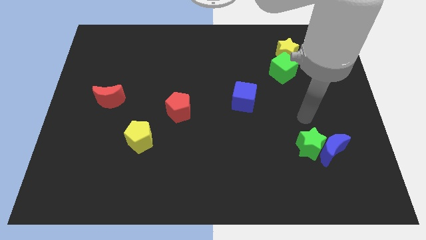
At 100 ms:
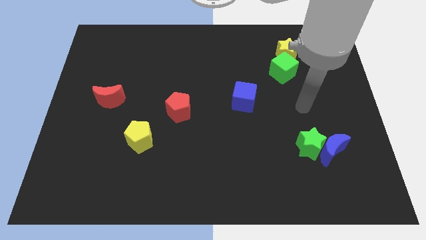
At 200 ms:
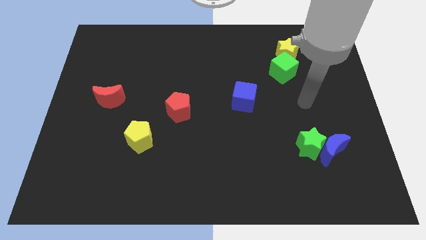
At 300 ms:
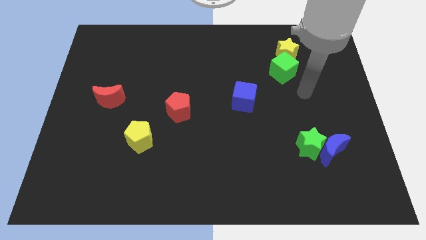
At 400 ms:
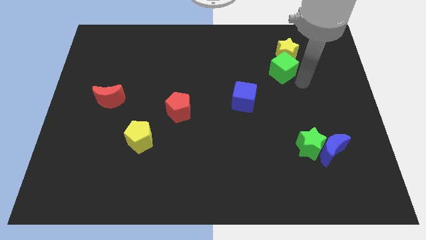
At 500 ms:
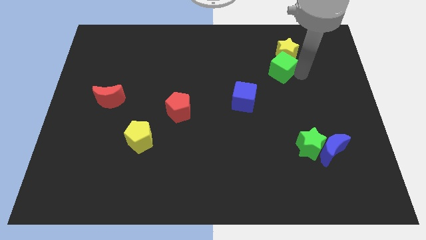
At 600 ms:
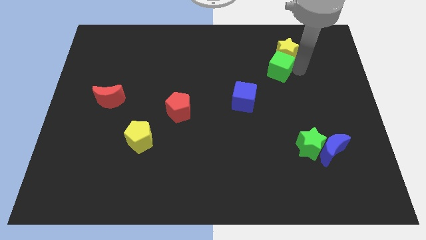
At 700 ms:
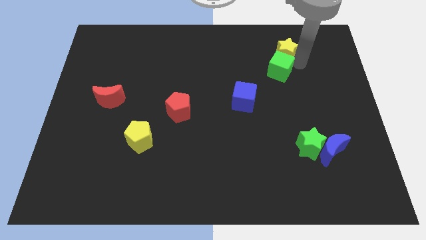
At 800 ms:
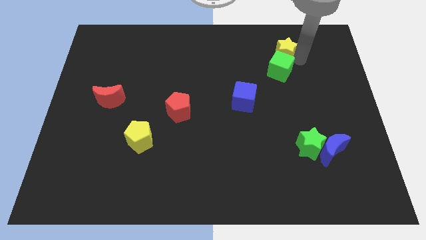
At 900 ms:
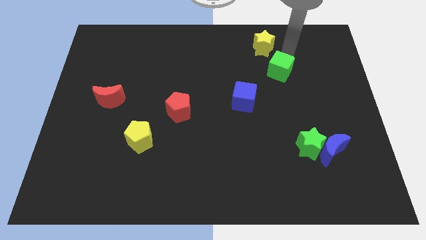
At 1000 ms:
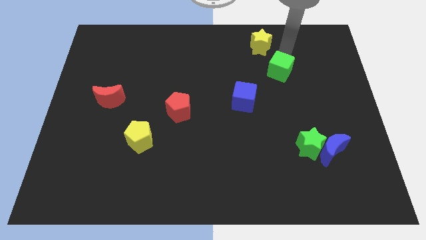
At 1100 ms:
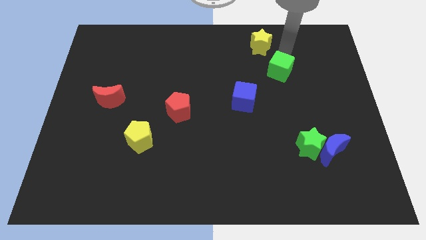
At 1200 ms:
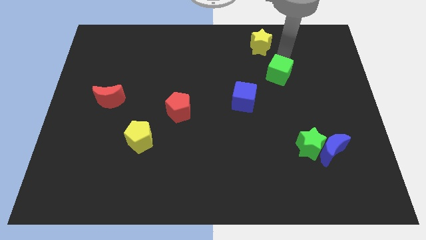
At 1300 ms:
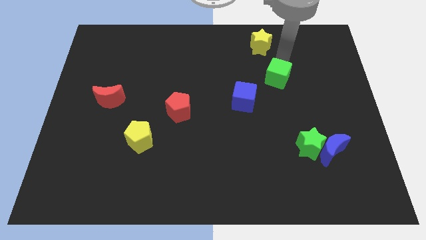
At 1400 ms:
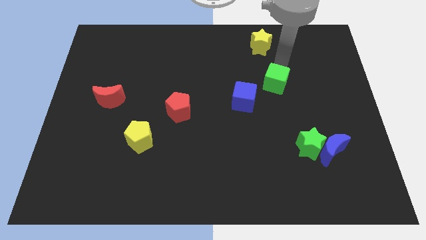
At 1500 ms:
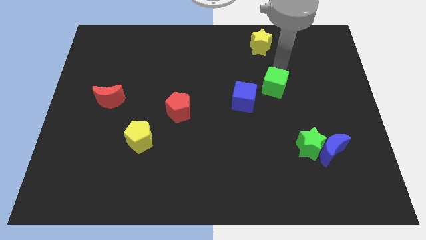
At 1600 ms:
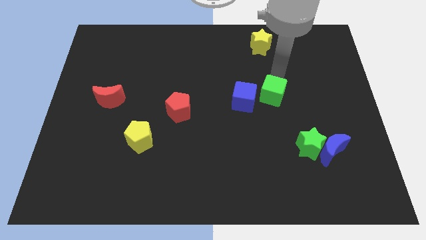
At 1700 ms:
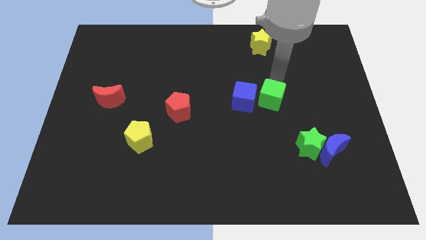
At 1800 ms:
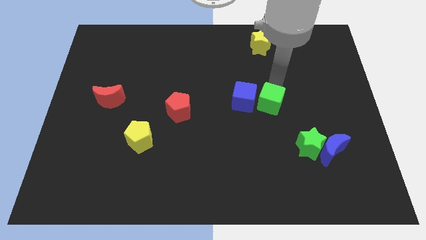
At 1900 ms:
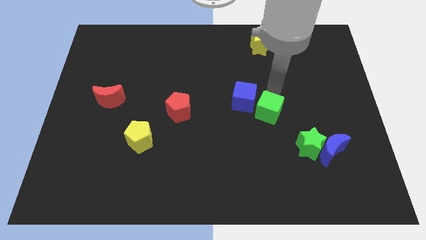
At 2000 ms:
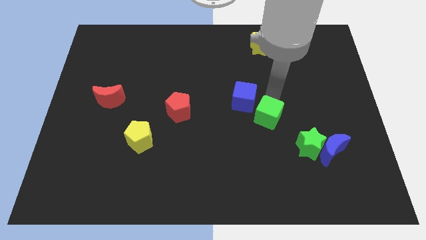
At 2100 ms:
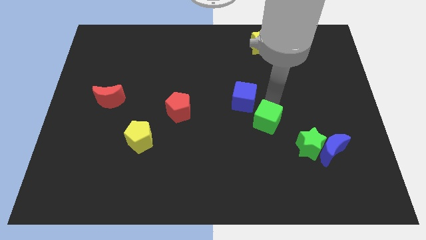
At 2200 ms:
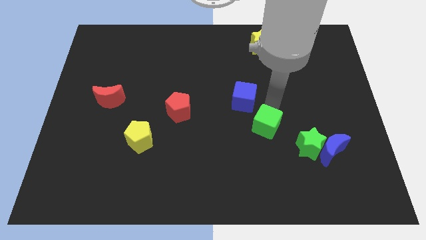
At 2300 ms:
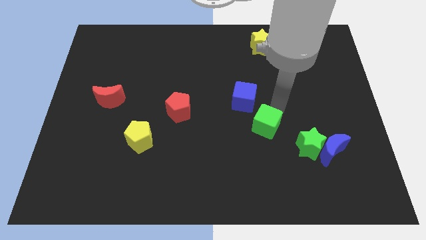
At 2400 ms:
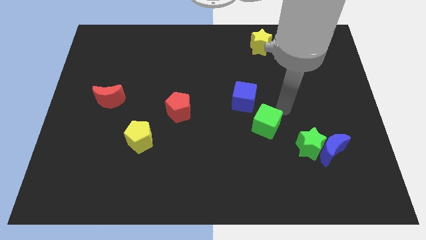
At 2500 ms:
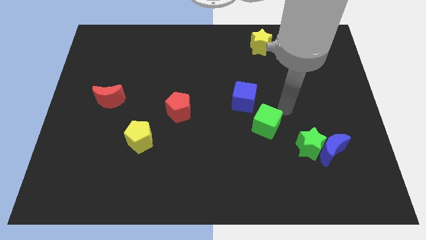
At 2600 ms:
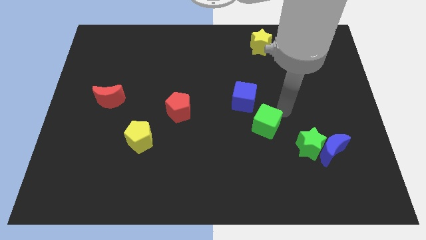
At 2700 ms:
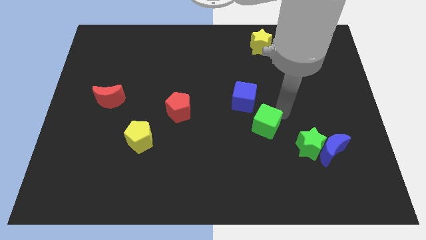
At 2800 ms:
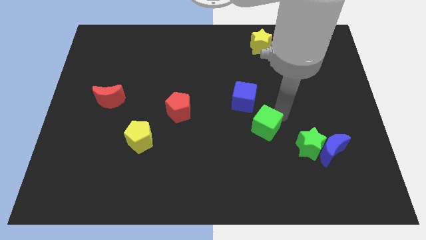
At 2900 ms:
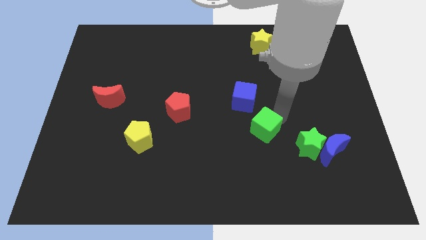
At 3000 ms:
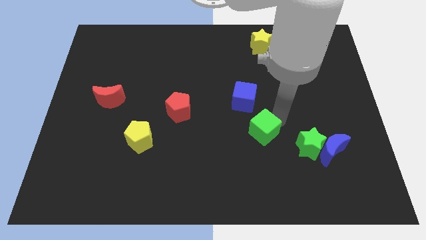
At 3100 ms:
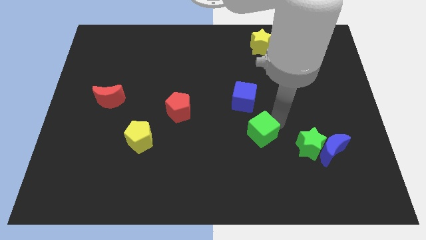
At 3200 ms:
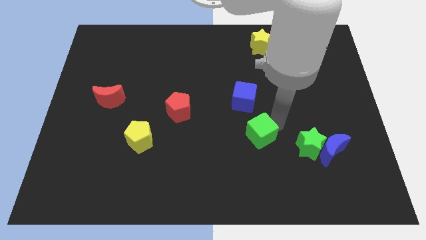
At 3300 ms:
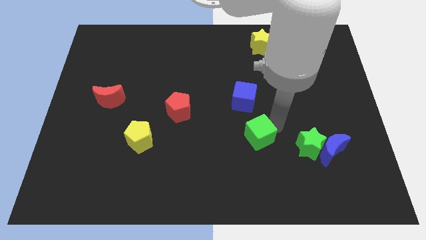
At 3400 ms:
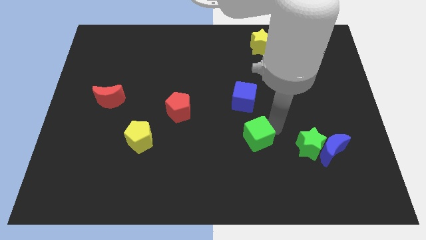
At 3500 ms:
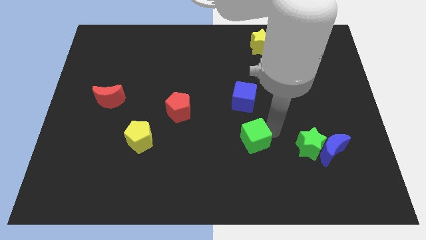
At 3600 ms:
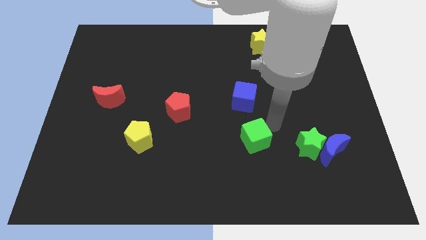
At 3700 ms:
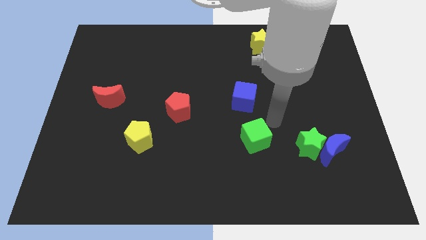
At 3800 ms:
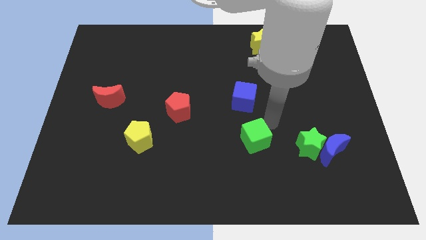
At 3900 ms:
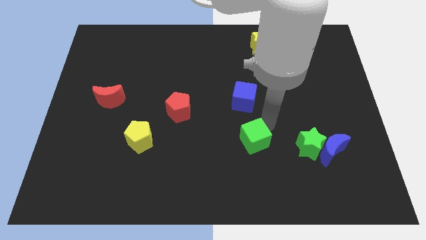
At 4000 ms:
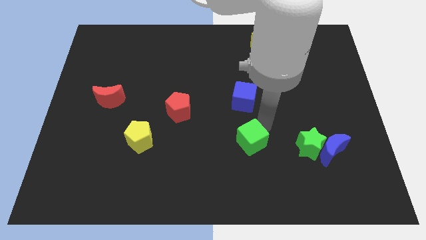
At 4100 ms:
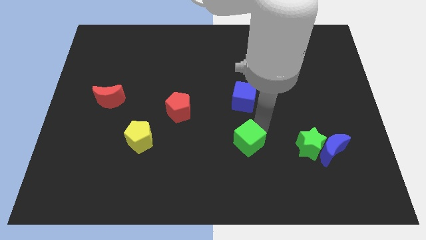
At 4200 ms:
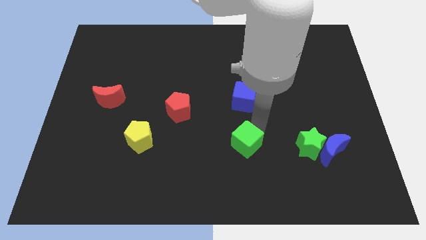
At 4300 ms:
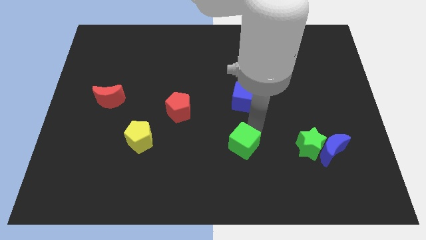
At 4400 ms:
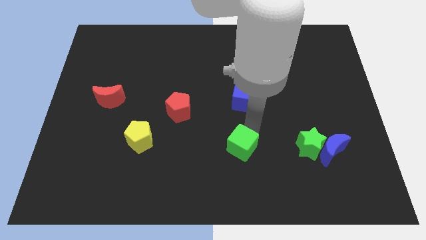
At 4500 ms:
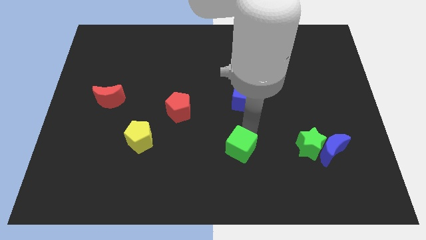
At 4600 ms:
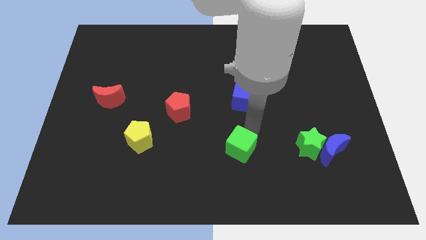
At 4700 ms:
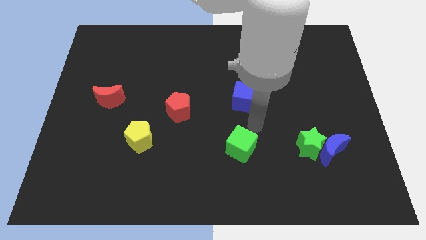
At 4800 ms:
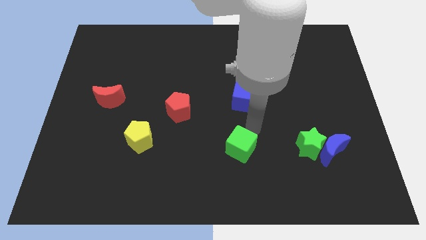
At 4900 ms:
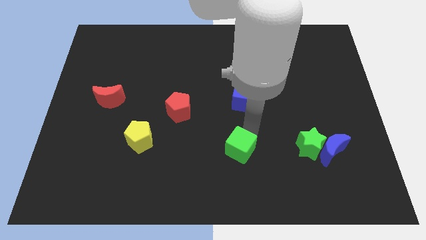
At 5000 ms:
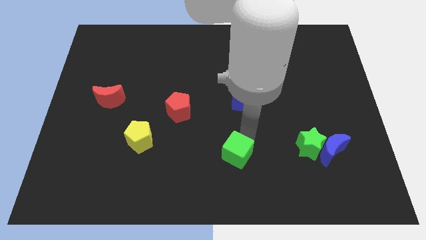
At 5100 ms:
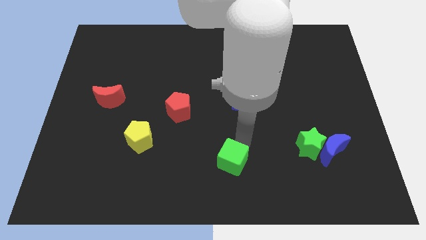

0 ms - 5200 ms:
slide the green cube to the bottom side

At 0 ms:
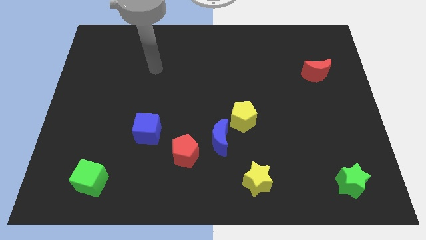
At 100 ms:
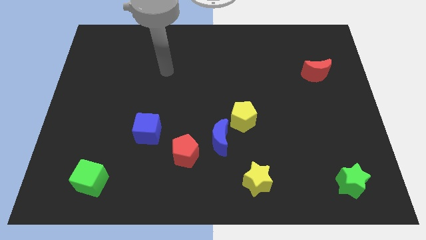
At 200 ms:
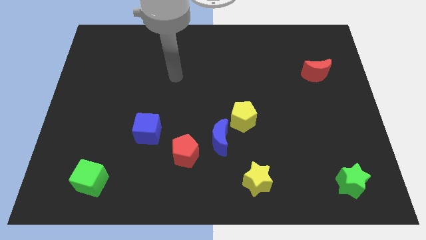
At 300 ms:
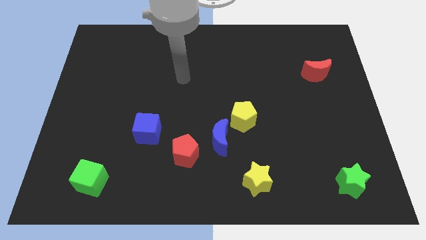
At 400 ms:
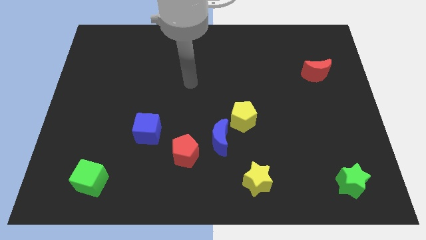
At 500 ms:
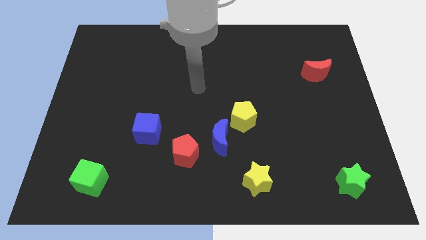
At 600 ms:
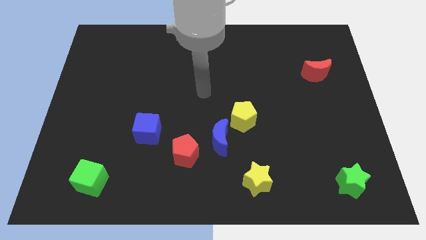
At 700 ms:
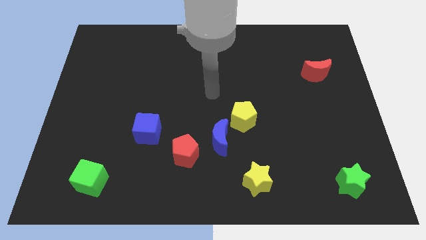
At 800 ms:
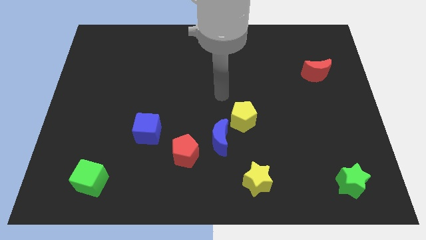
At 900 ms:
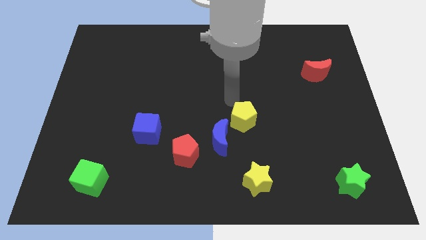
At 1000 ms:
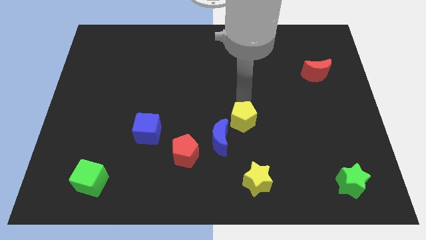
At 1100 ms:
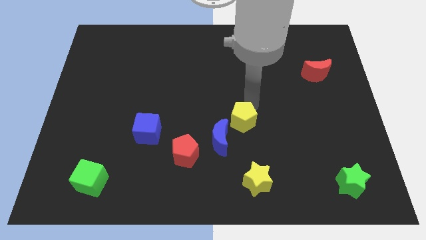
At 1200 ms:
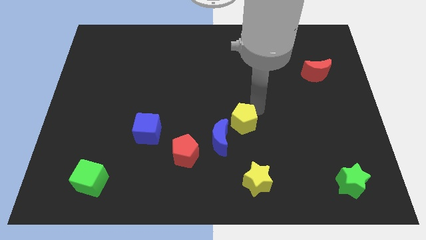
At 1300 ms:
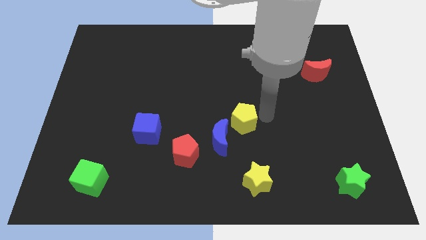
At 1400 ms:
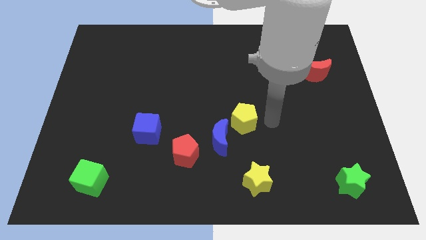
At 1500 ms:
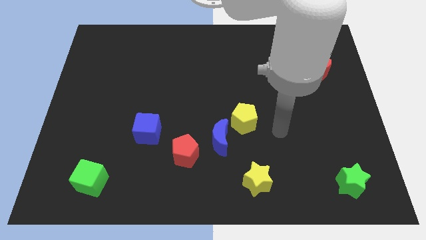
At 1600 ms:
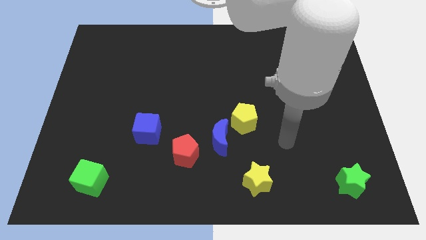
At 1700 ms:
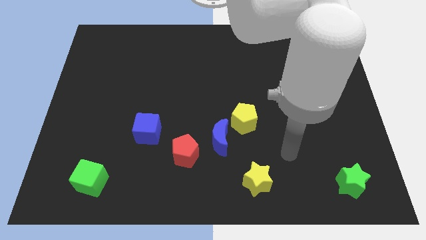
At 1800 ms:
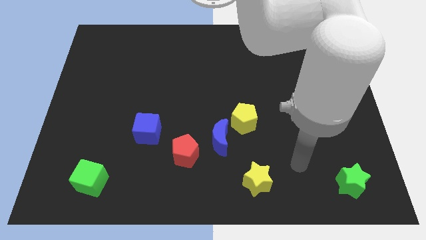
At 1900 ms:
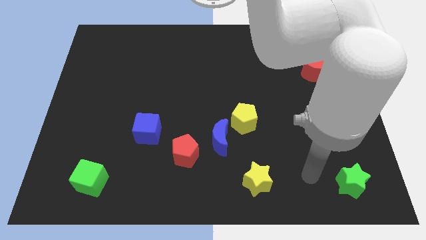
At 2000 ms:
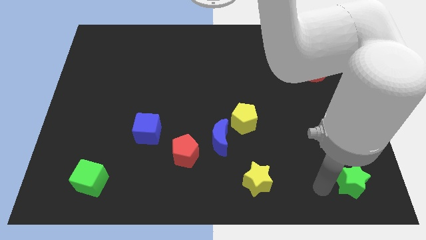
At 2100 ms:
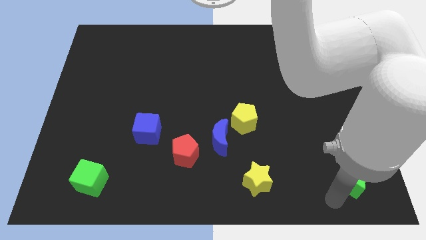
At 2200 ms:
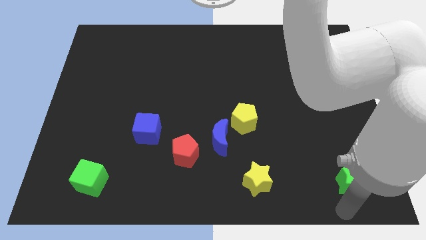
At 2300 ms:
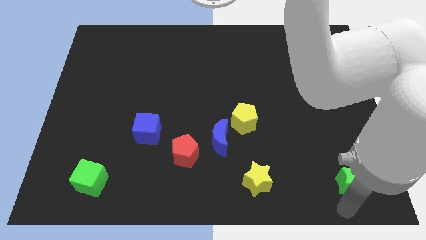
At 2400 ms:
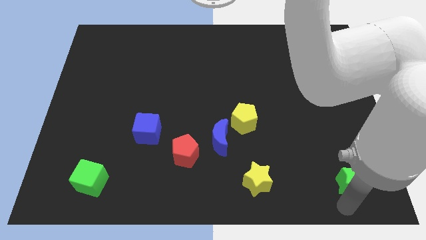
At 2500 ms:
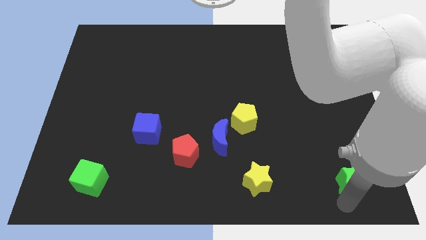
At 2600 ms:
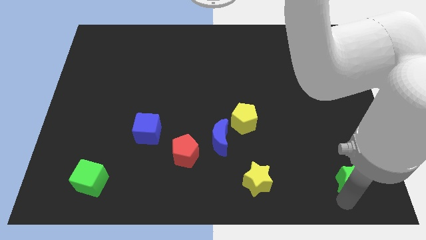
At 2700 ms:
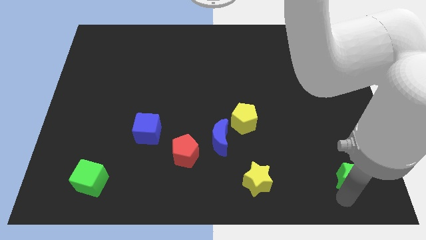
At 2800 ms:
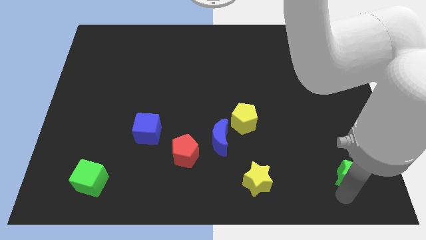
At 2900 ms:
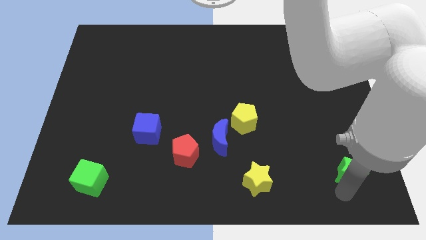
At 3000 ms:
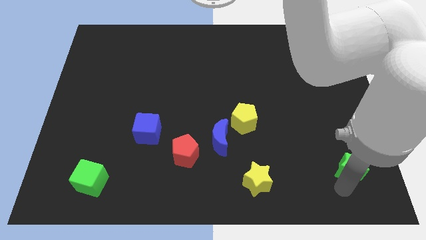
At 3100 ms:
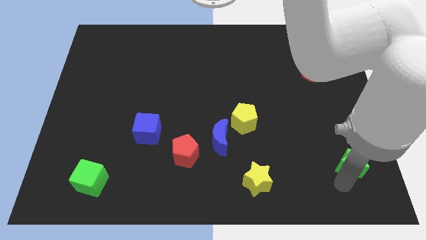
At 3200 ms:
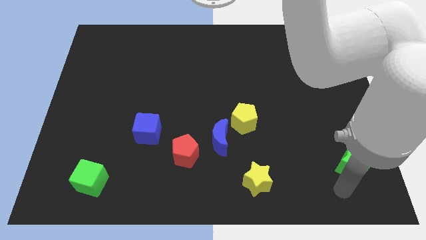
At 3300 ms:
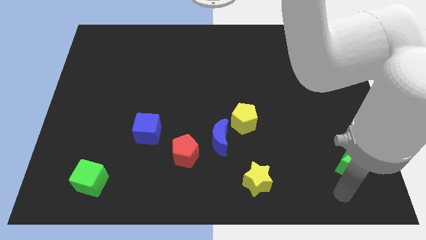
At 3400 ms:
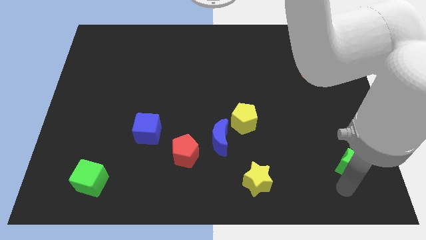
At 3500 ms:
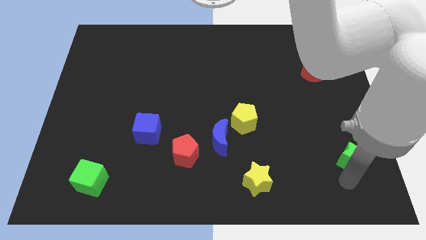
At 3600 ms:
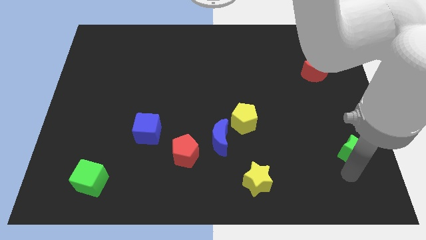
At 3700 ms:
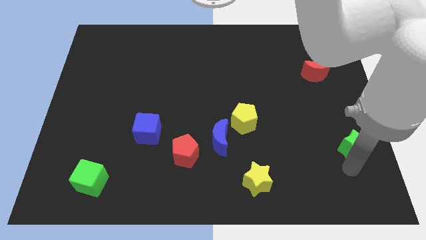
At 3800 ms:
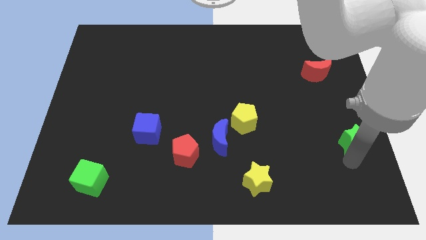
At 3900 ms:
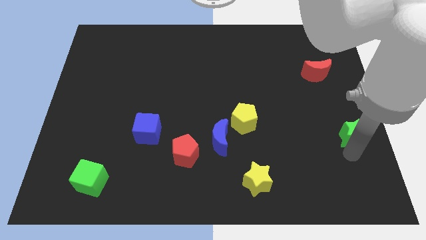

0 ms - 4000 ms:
push the green star to the right side
